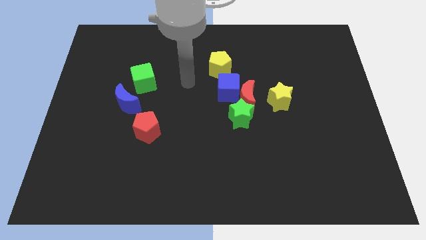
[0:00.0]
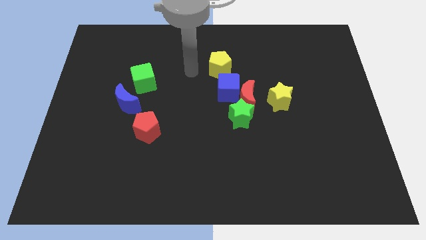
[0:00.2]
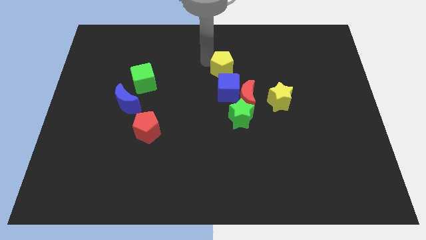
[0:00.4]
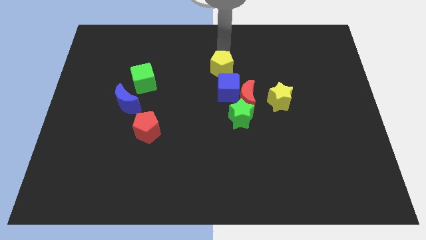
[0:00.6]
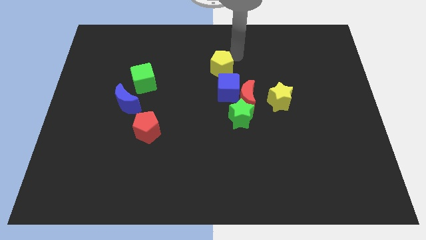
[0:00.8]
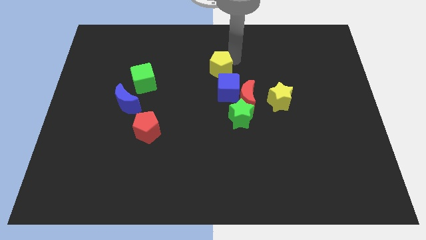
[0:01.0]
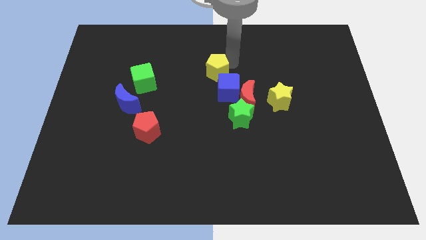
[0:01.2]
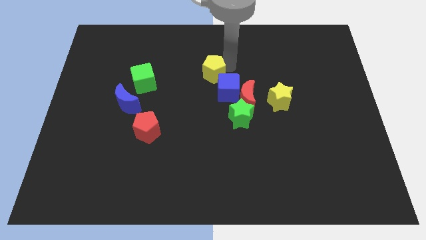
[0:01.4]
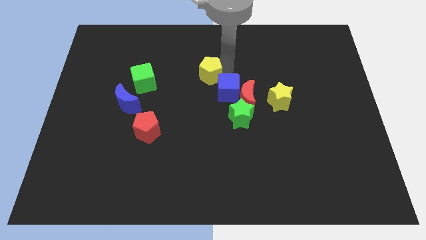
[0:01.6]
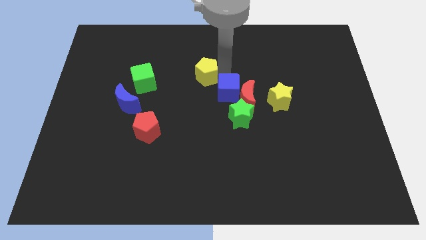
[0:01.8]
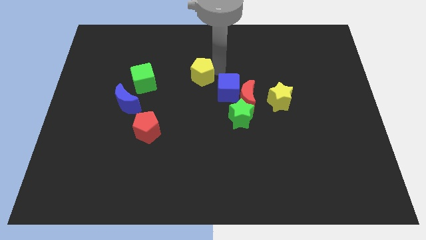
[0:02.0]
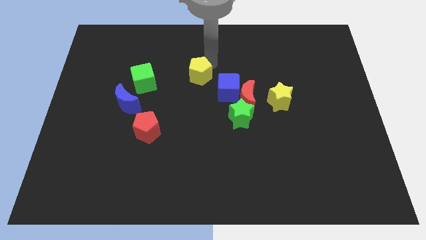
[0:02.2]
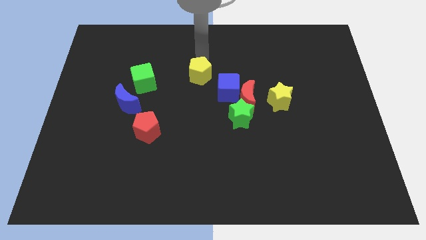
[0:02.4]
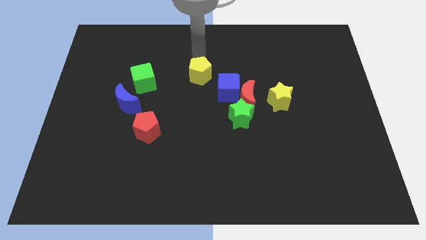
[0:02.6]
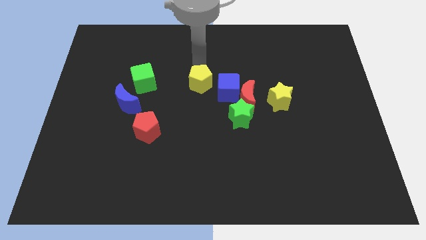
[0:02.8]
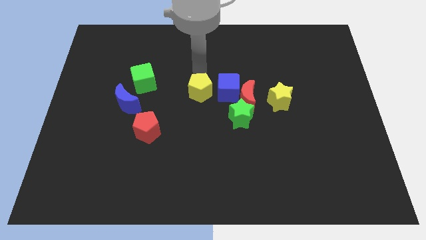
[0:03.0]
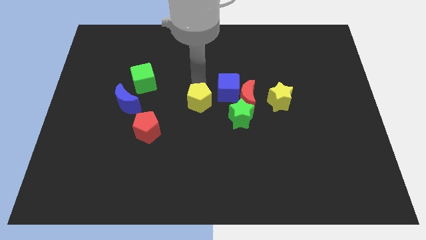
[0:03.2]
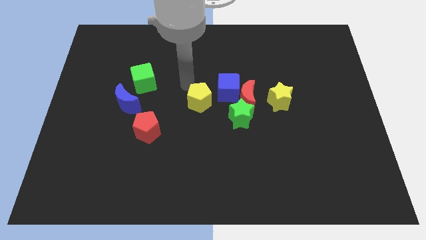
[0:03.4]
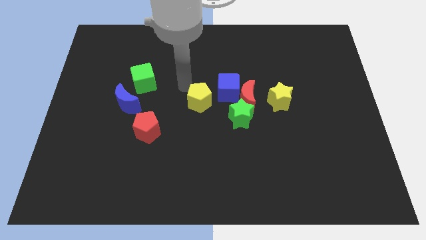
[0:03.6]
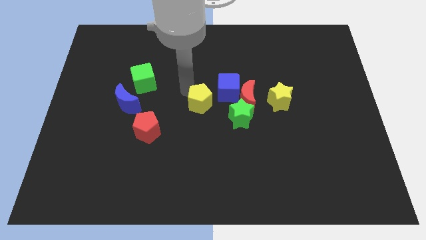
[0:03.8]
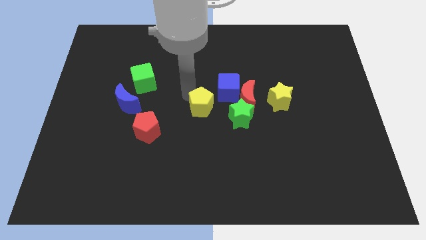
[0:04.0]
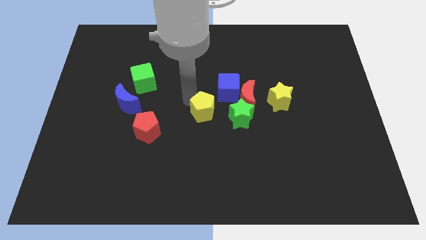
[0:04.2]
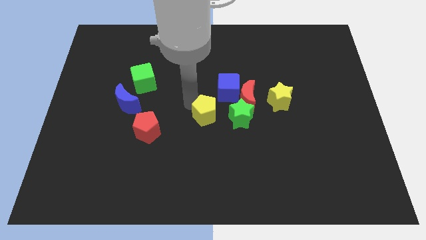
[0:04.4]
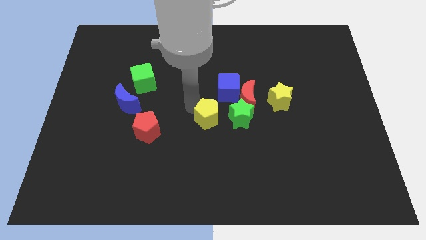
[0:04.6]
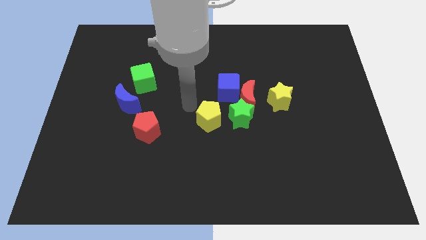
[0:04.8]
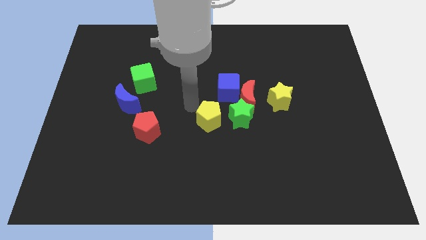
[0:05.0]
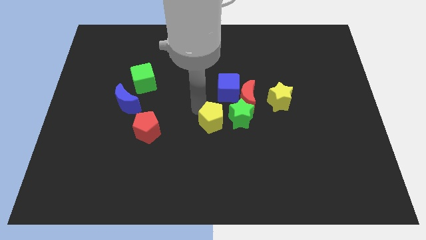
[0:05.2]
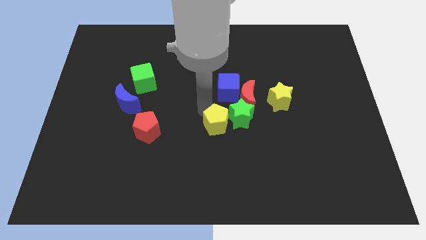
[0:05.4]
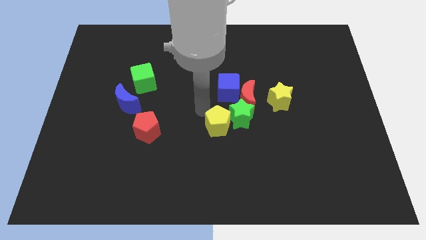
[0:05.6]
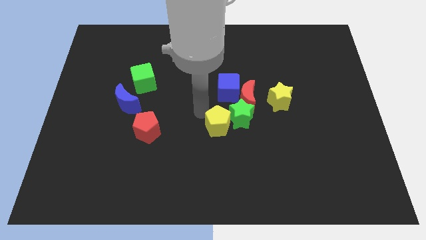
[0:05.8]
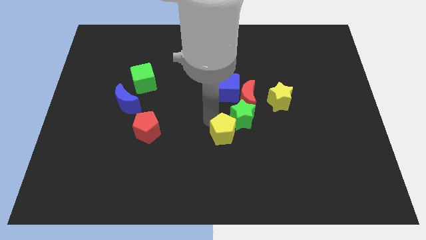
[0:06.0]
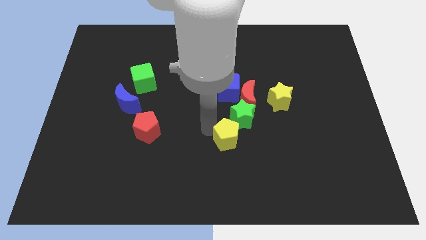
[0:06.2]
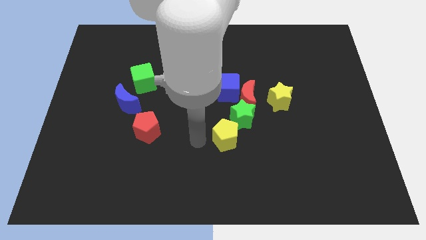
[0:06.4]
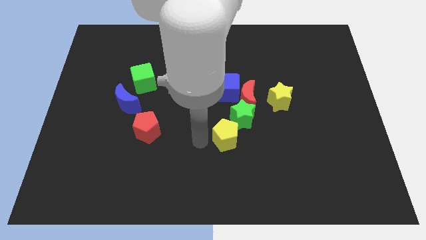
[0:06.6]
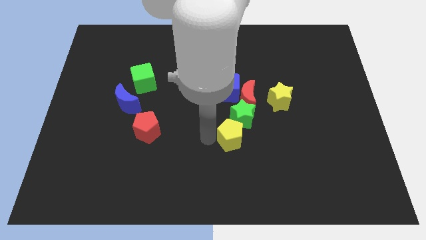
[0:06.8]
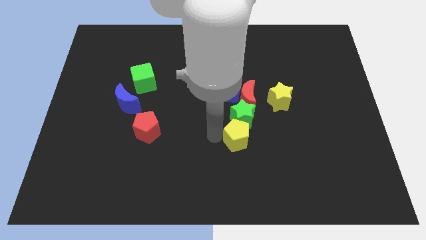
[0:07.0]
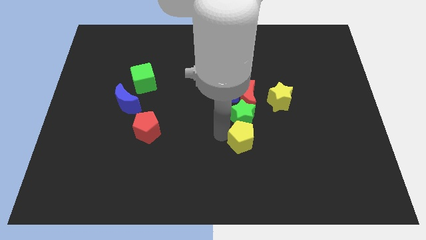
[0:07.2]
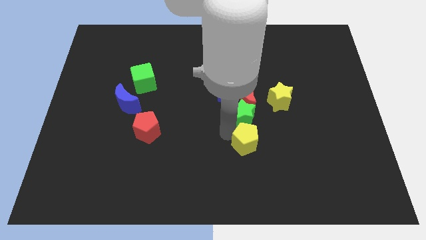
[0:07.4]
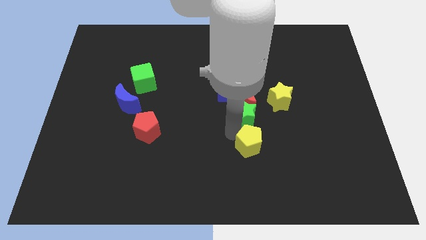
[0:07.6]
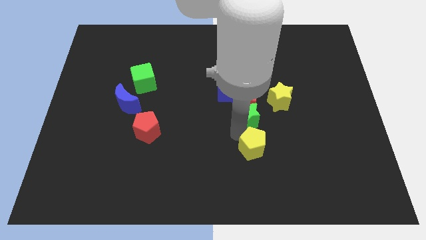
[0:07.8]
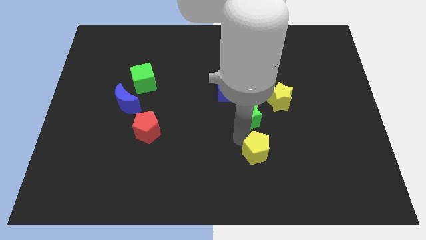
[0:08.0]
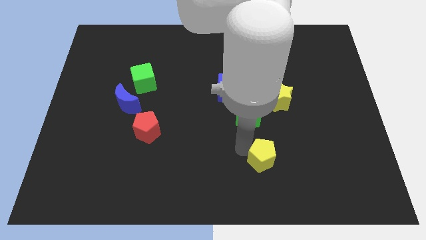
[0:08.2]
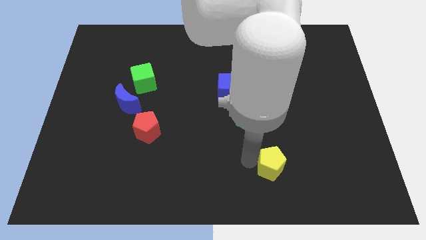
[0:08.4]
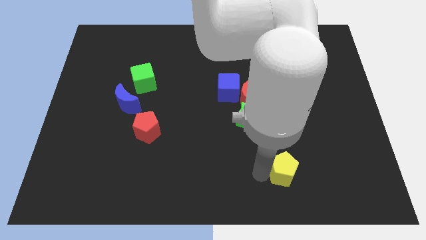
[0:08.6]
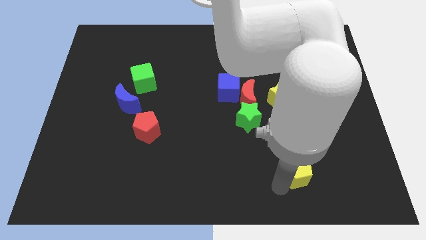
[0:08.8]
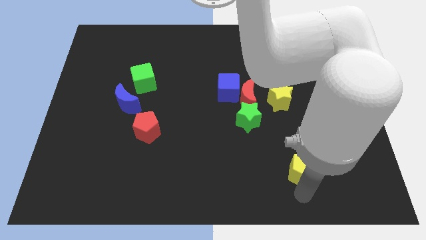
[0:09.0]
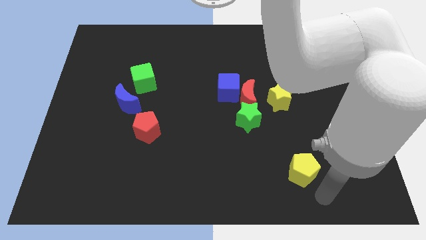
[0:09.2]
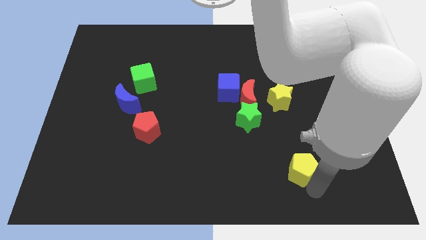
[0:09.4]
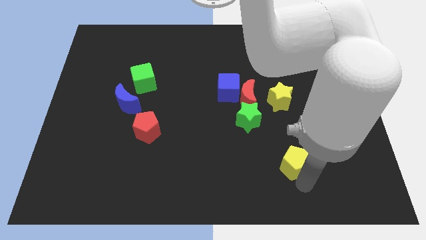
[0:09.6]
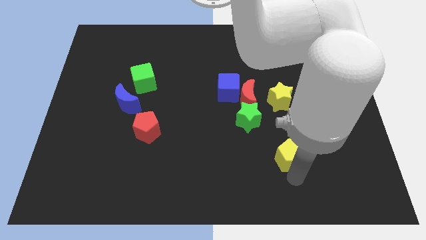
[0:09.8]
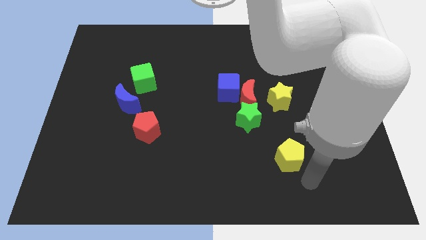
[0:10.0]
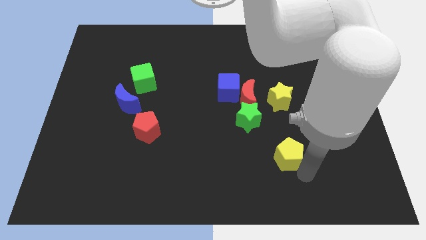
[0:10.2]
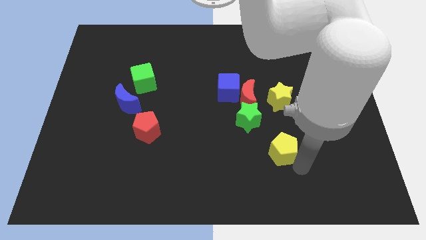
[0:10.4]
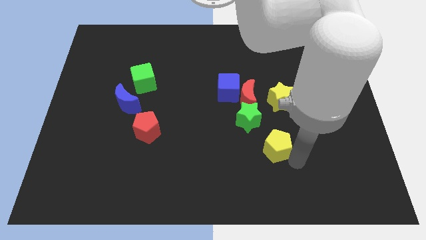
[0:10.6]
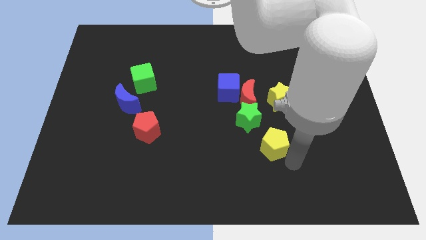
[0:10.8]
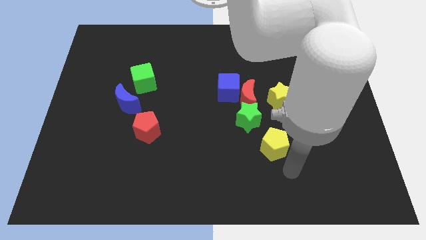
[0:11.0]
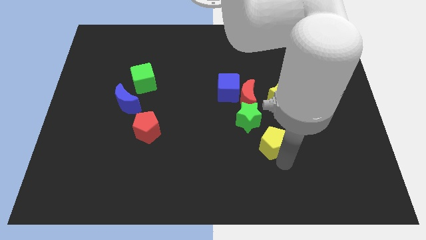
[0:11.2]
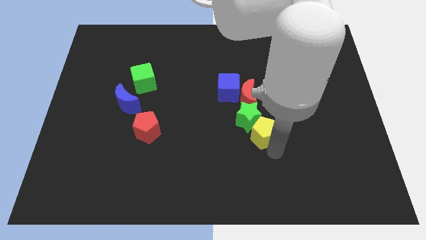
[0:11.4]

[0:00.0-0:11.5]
push the yellow pentagon to the bottom left of the yellow star

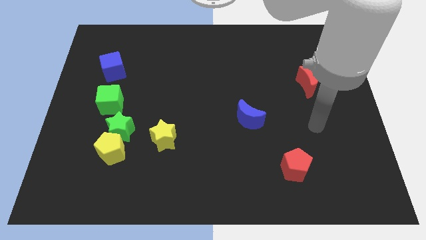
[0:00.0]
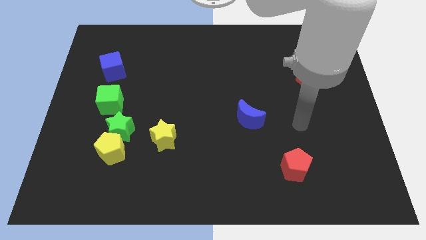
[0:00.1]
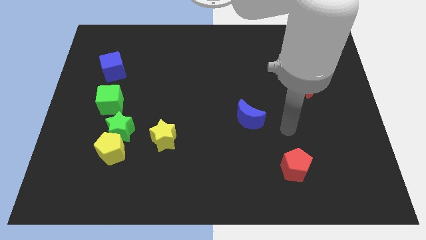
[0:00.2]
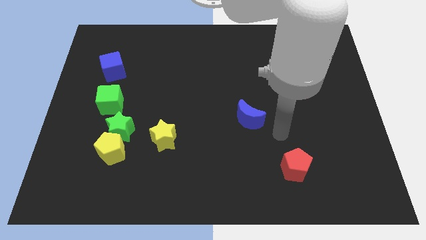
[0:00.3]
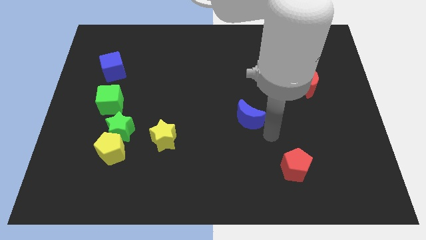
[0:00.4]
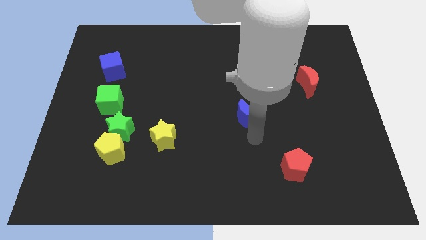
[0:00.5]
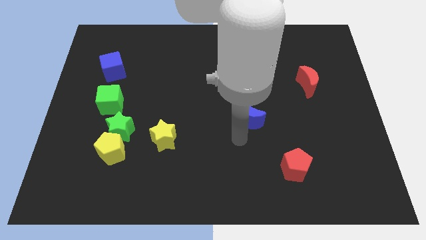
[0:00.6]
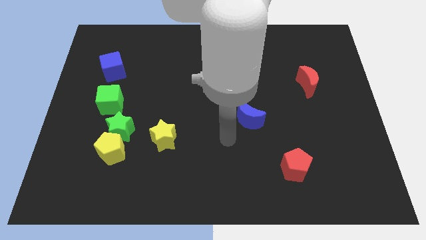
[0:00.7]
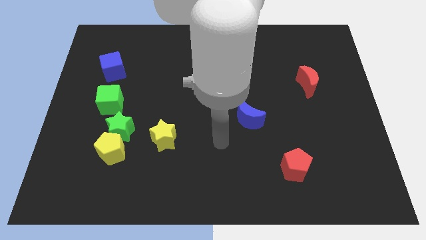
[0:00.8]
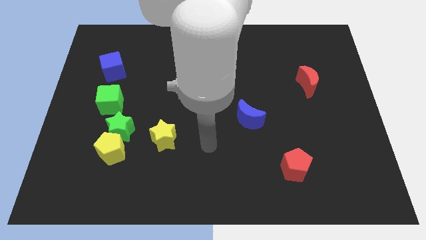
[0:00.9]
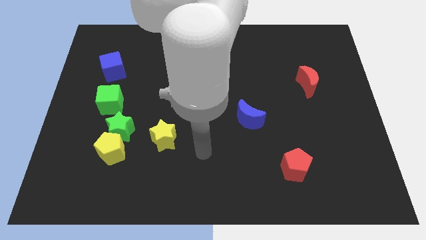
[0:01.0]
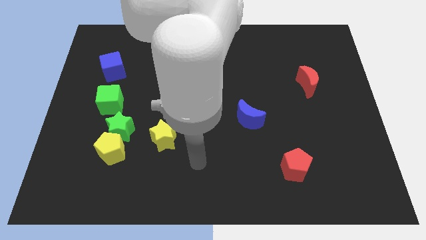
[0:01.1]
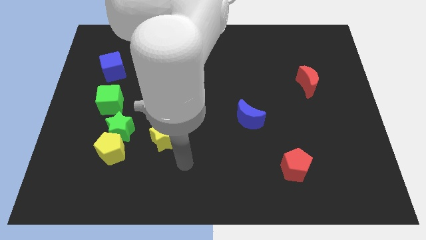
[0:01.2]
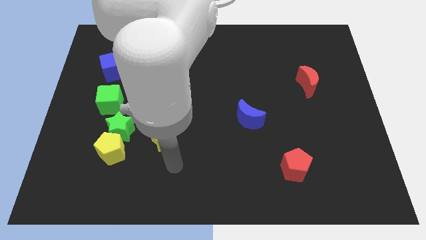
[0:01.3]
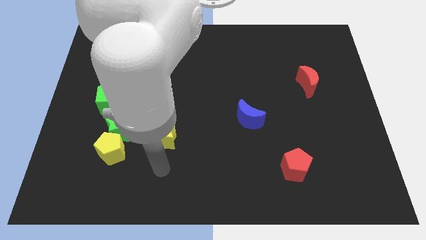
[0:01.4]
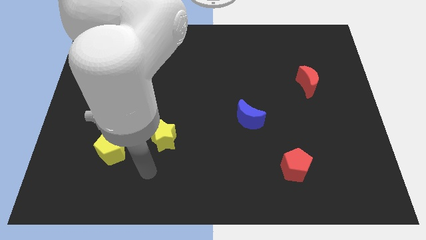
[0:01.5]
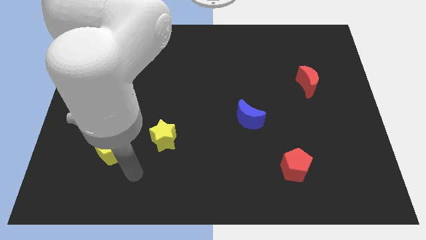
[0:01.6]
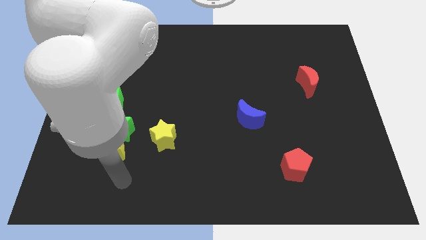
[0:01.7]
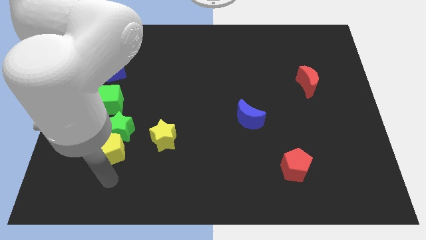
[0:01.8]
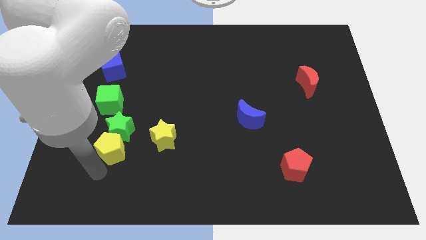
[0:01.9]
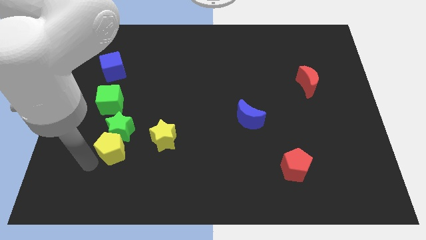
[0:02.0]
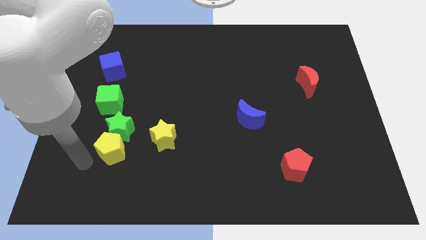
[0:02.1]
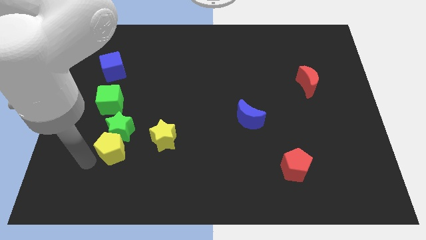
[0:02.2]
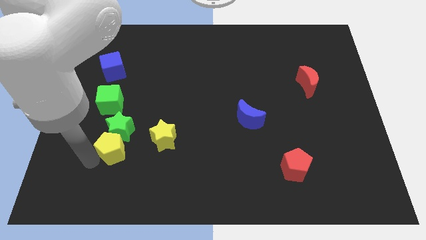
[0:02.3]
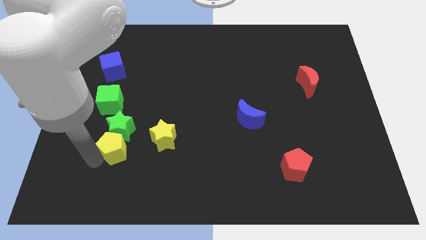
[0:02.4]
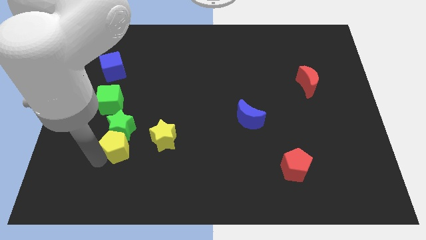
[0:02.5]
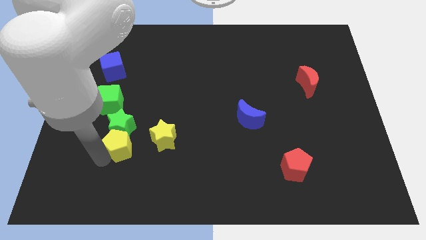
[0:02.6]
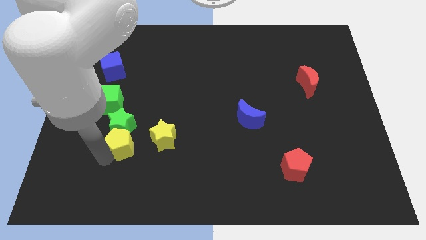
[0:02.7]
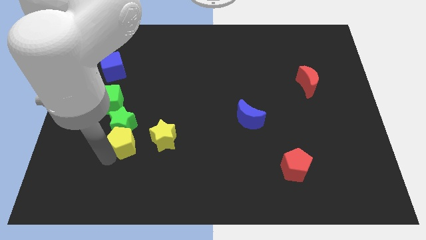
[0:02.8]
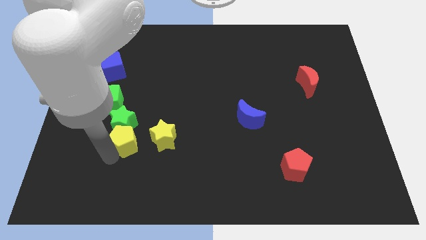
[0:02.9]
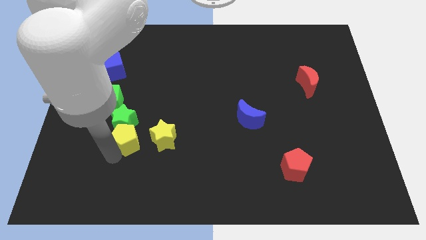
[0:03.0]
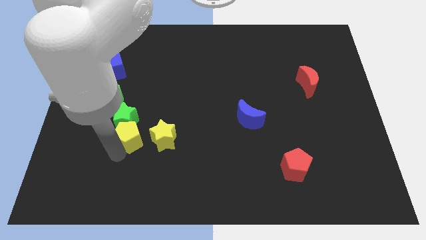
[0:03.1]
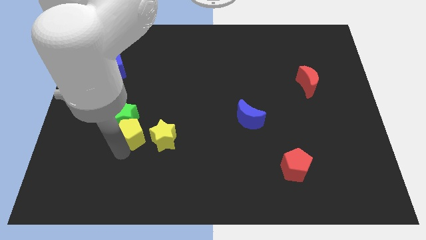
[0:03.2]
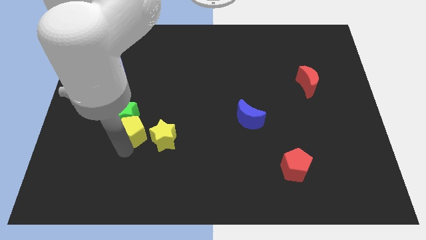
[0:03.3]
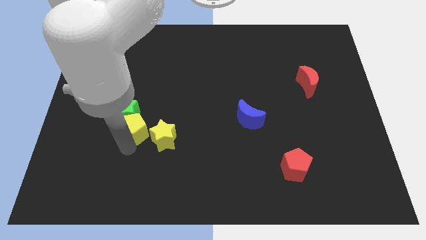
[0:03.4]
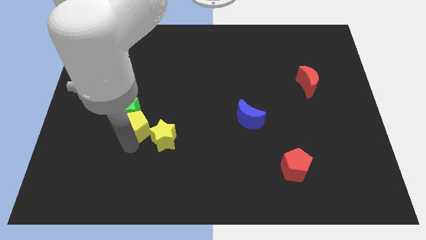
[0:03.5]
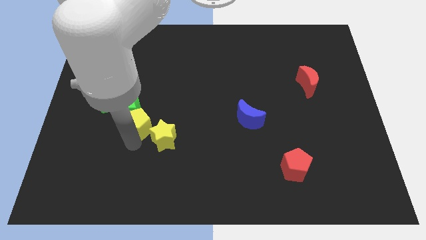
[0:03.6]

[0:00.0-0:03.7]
put the yellow pentagon to the right side of the green star
